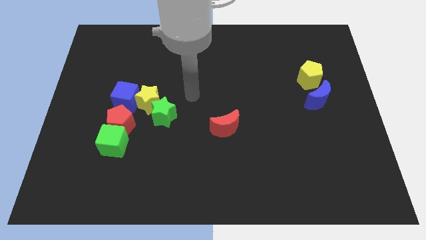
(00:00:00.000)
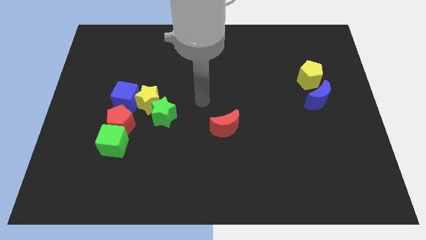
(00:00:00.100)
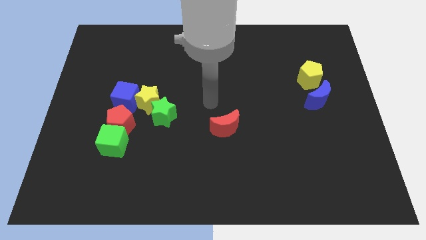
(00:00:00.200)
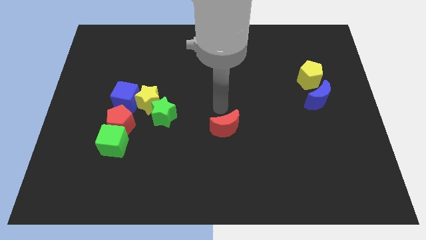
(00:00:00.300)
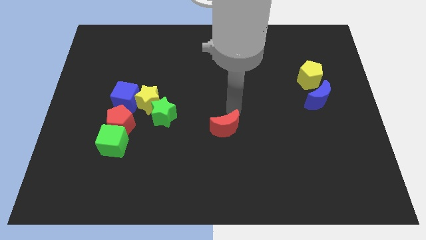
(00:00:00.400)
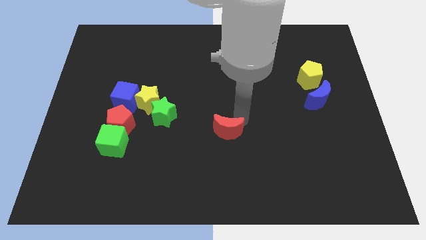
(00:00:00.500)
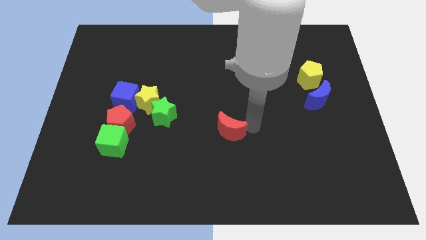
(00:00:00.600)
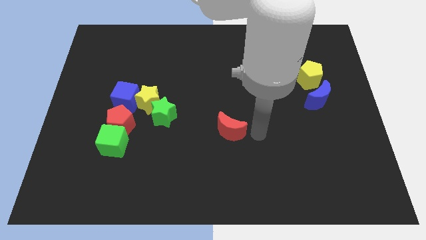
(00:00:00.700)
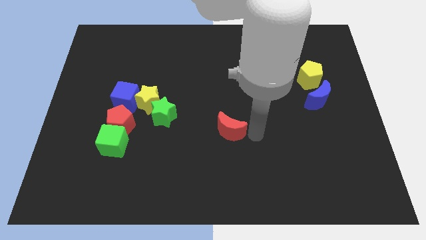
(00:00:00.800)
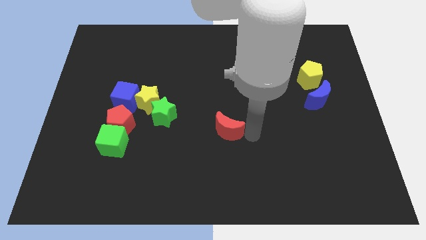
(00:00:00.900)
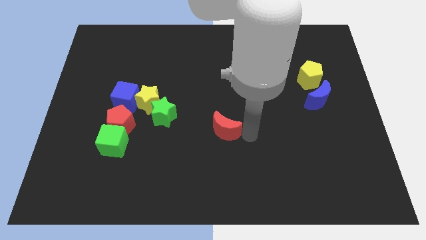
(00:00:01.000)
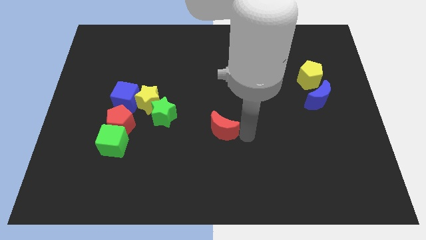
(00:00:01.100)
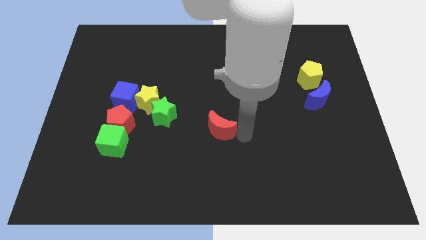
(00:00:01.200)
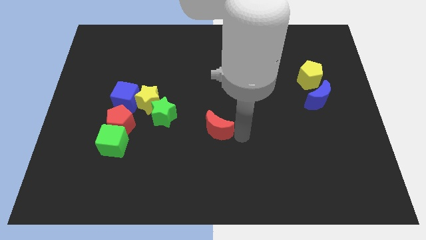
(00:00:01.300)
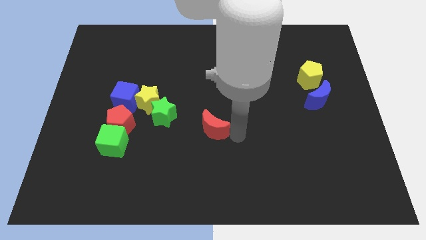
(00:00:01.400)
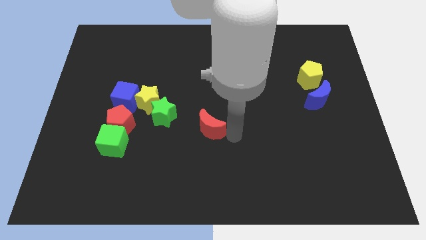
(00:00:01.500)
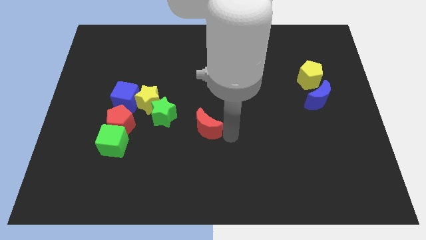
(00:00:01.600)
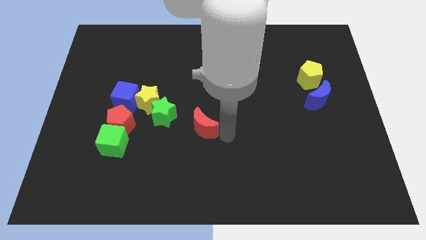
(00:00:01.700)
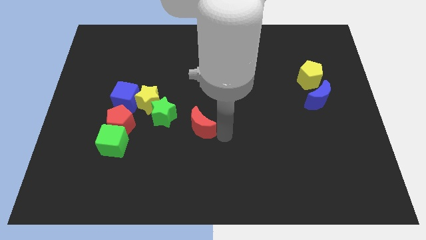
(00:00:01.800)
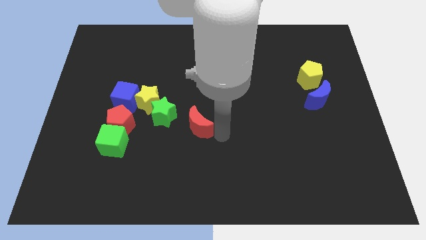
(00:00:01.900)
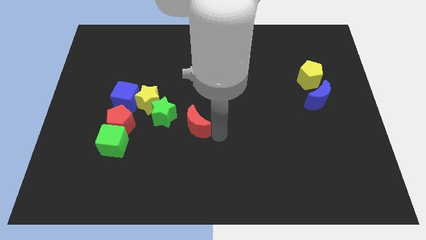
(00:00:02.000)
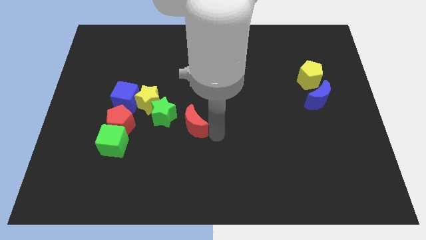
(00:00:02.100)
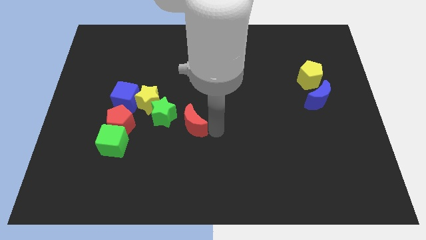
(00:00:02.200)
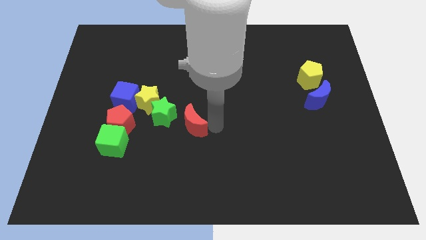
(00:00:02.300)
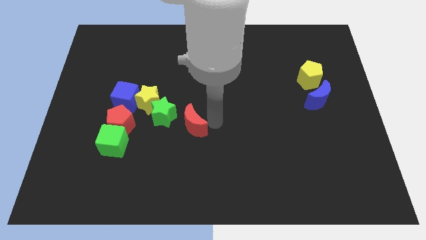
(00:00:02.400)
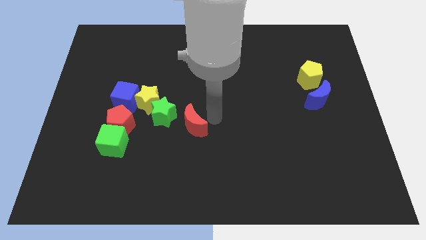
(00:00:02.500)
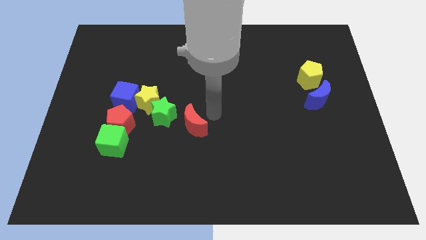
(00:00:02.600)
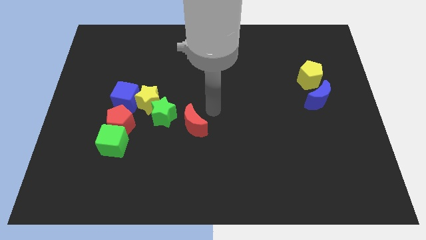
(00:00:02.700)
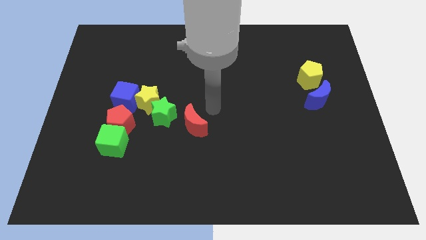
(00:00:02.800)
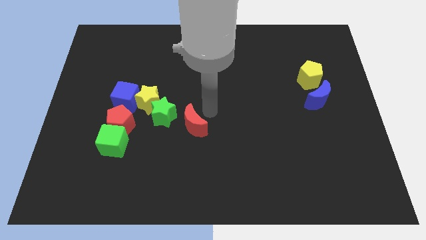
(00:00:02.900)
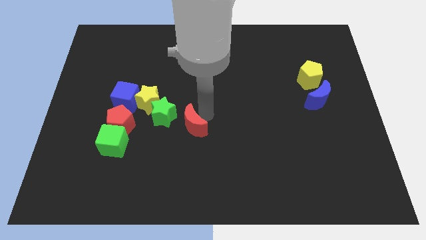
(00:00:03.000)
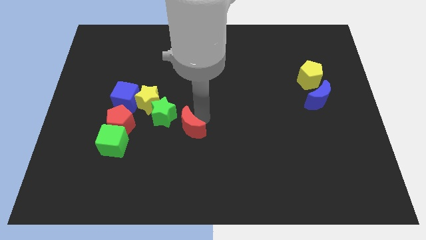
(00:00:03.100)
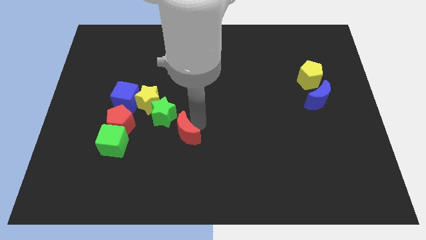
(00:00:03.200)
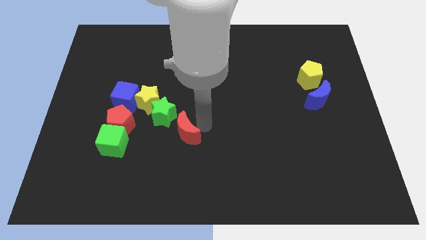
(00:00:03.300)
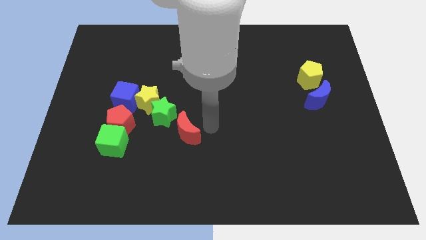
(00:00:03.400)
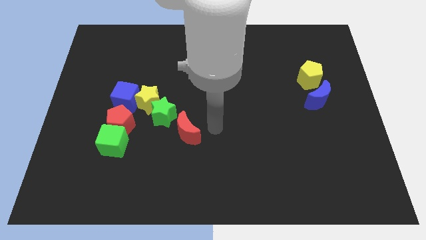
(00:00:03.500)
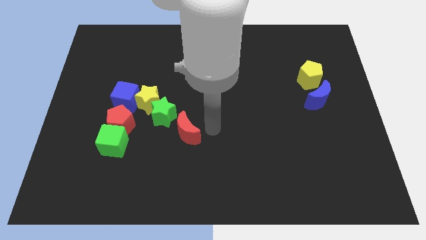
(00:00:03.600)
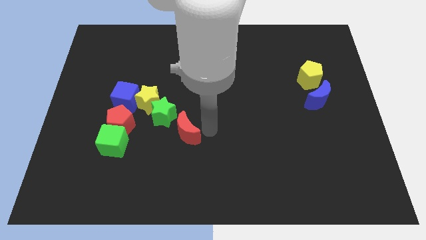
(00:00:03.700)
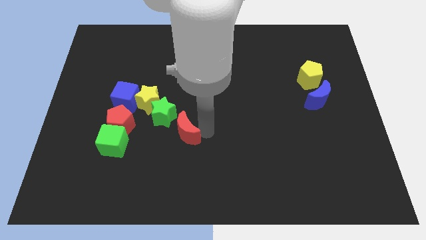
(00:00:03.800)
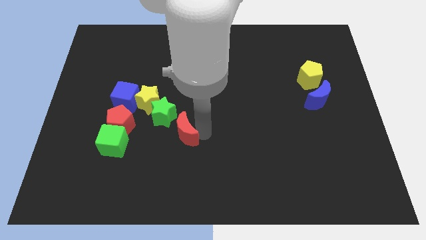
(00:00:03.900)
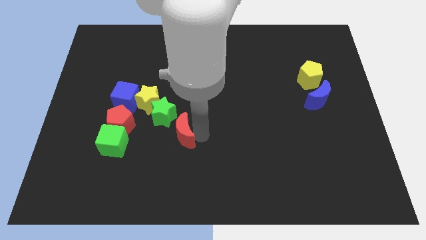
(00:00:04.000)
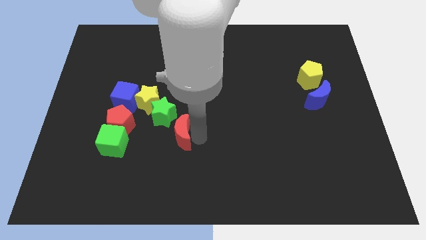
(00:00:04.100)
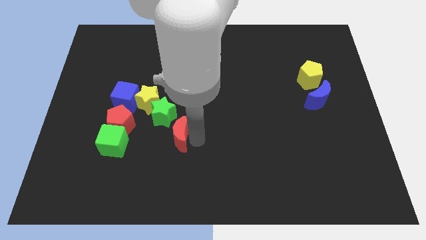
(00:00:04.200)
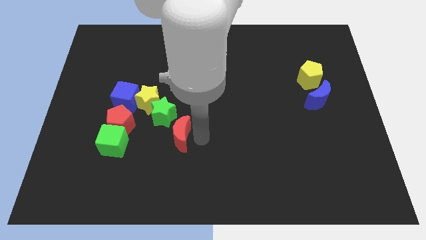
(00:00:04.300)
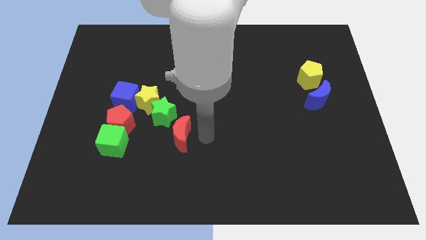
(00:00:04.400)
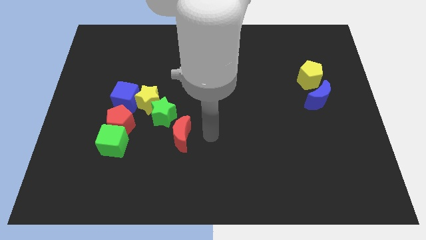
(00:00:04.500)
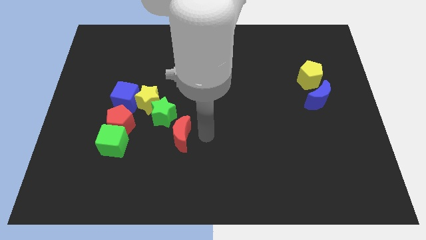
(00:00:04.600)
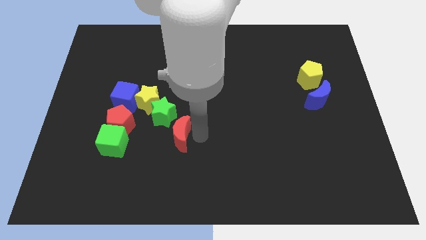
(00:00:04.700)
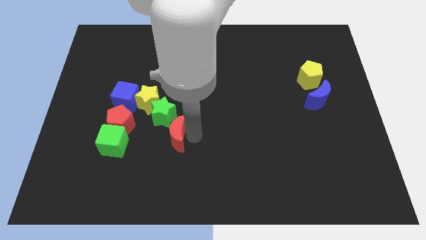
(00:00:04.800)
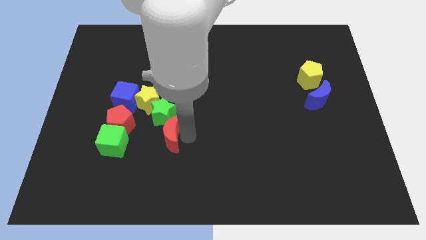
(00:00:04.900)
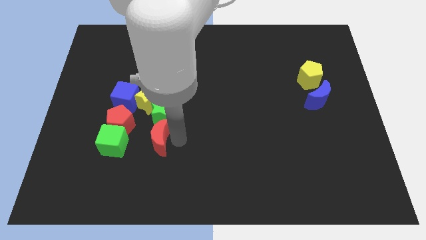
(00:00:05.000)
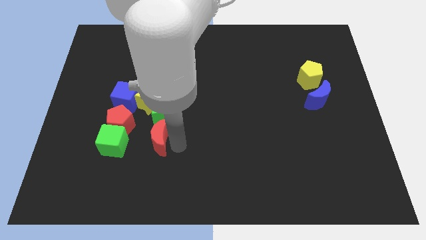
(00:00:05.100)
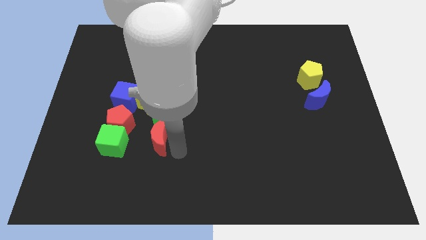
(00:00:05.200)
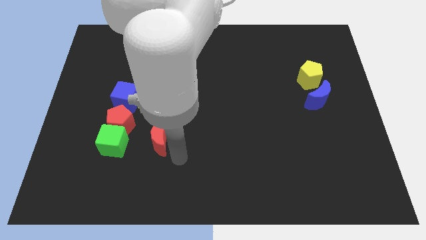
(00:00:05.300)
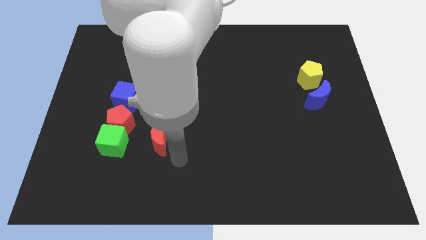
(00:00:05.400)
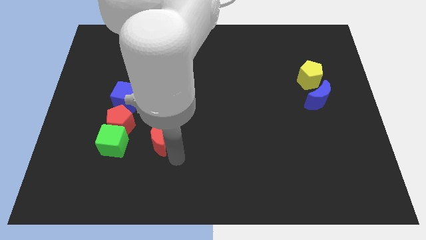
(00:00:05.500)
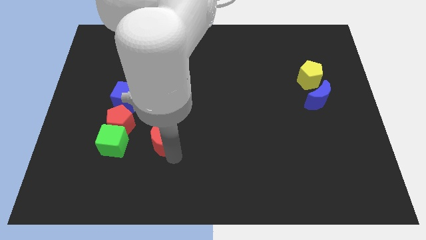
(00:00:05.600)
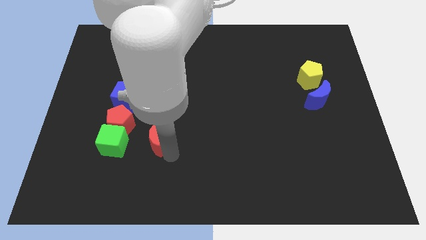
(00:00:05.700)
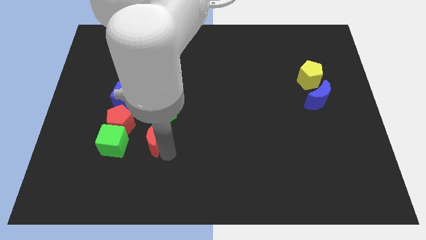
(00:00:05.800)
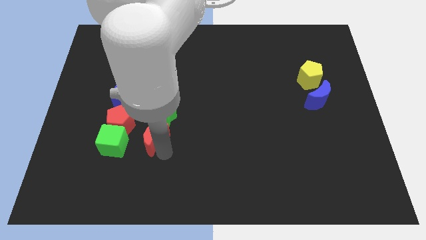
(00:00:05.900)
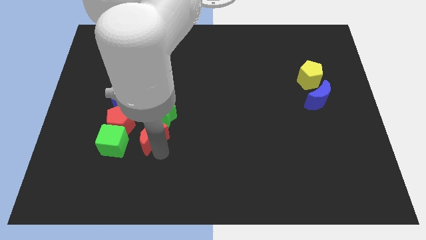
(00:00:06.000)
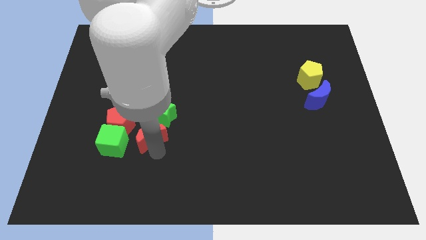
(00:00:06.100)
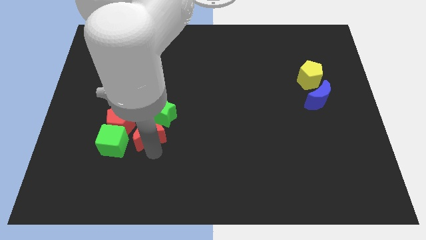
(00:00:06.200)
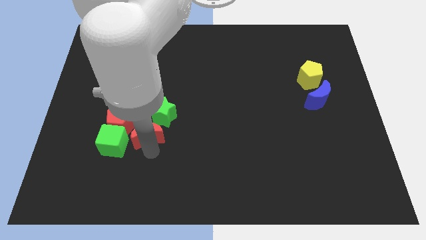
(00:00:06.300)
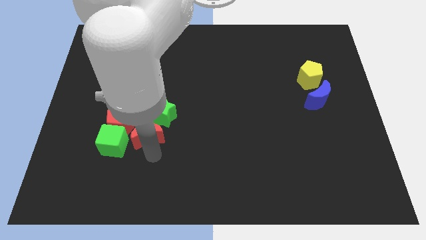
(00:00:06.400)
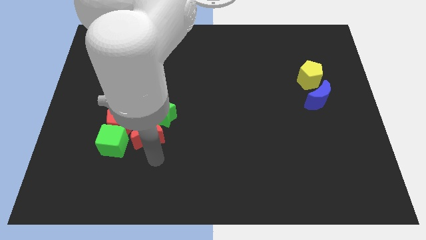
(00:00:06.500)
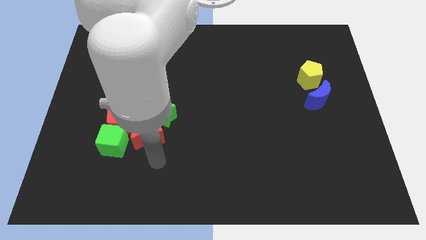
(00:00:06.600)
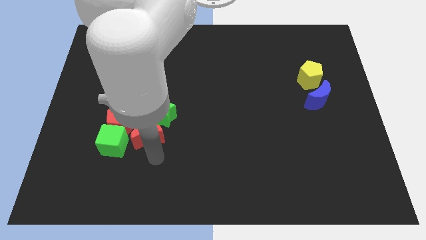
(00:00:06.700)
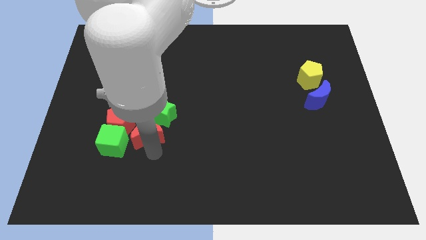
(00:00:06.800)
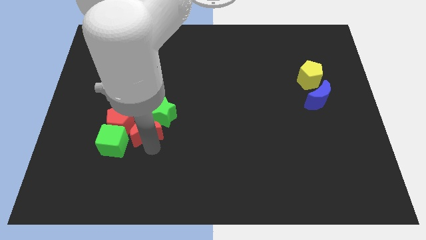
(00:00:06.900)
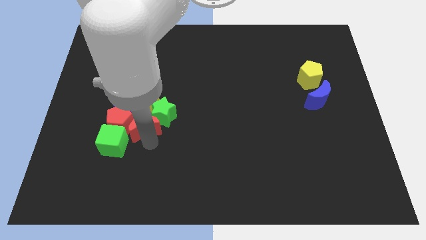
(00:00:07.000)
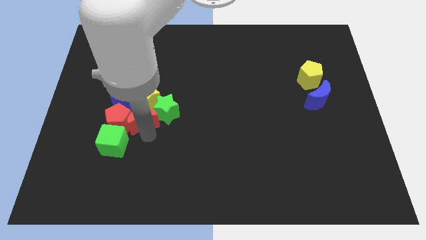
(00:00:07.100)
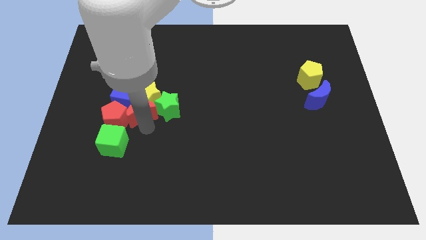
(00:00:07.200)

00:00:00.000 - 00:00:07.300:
put the red moon close to the blue cube

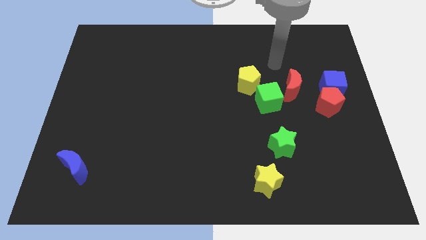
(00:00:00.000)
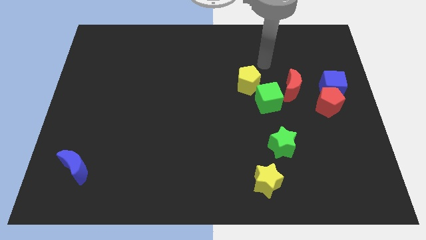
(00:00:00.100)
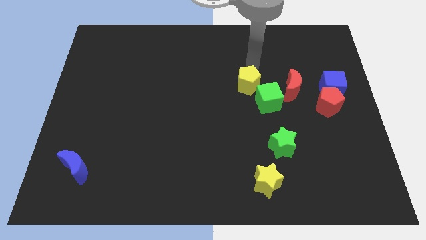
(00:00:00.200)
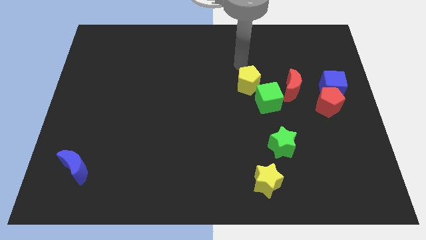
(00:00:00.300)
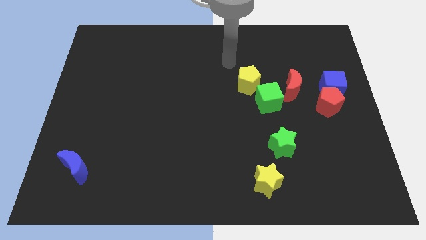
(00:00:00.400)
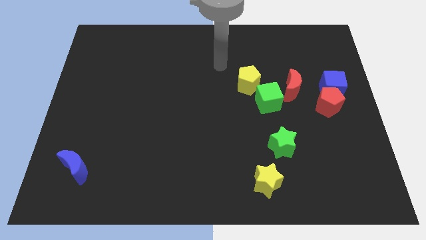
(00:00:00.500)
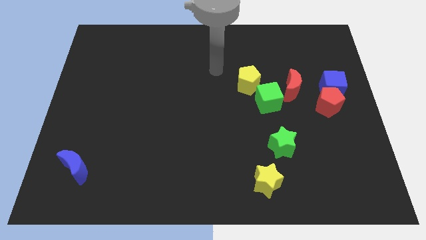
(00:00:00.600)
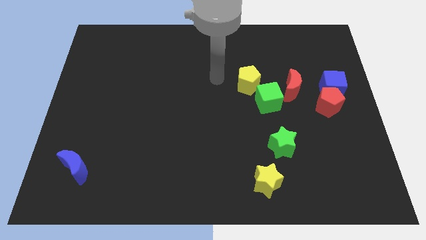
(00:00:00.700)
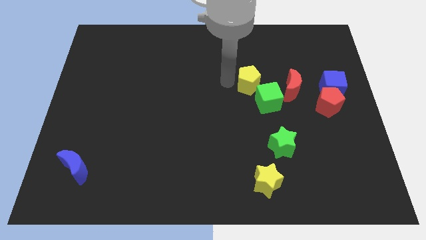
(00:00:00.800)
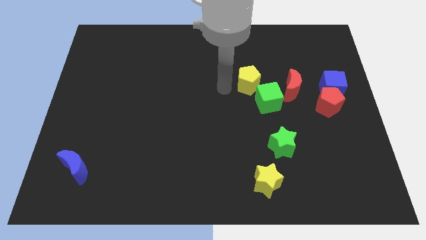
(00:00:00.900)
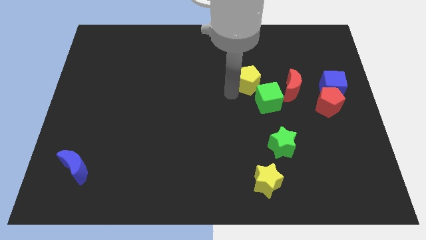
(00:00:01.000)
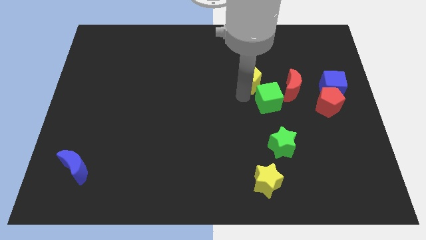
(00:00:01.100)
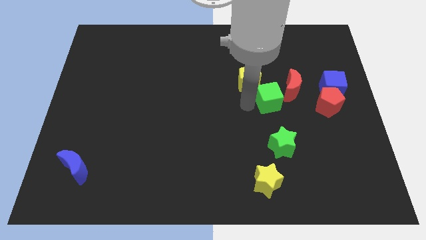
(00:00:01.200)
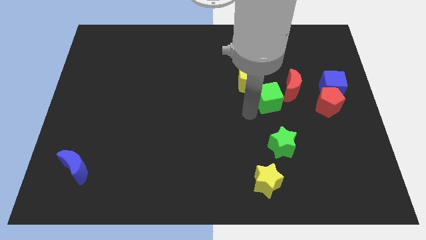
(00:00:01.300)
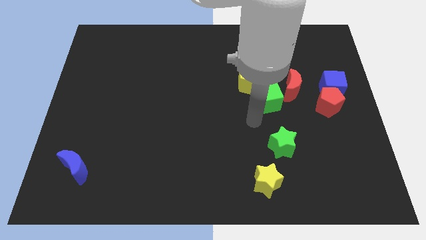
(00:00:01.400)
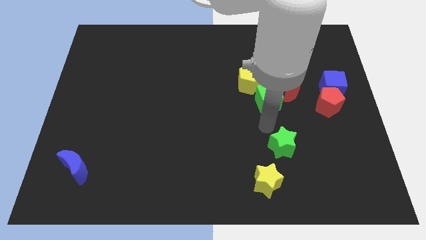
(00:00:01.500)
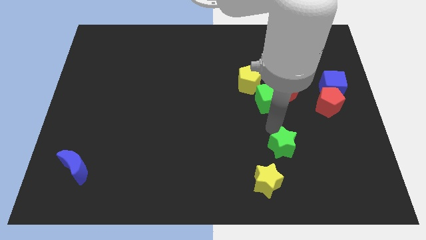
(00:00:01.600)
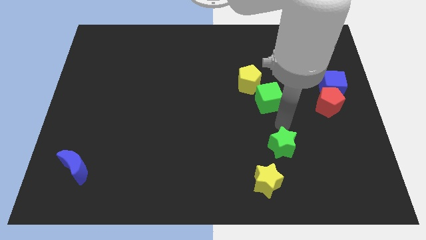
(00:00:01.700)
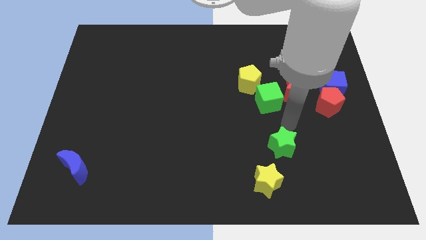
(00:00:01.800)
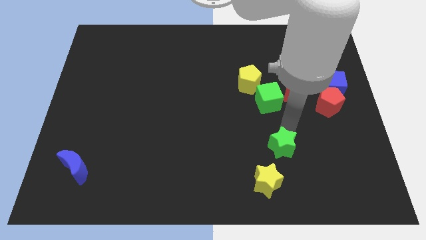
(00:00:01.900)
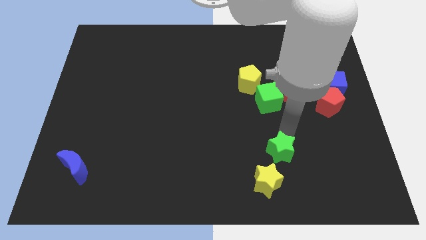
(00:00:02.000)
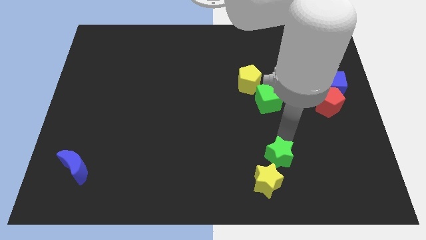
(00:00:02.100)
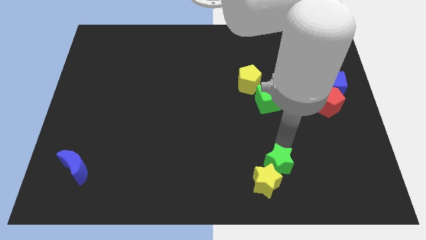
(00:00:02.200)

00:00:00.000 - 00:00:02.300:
slide the green star towards the yellow star
